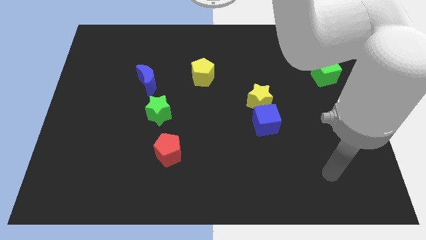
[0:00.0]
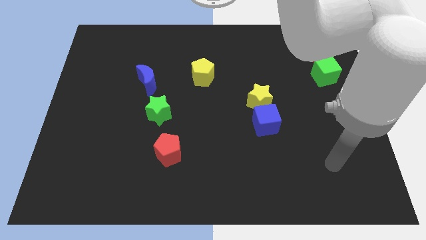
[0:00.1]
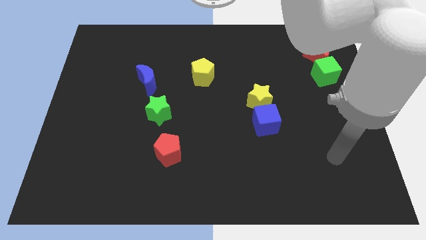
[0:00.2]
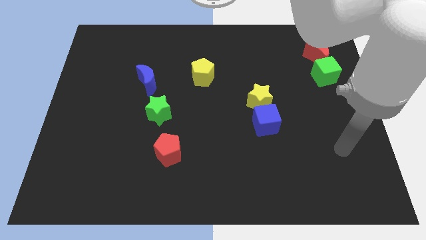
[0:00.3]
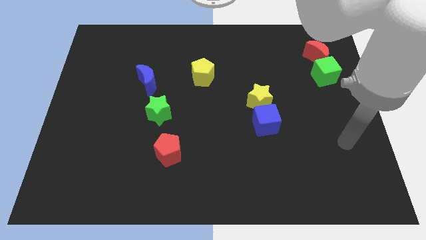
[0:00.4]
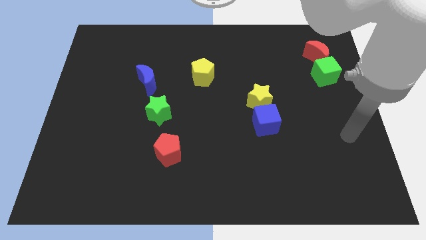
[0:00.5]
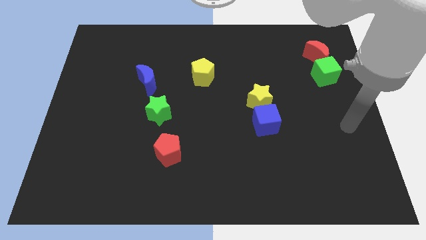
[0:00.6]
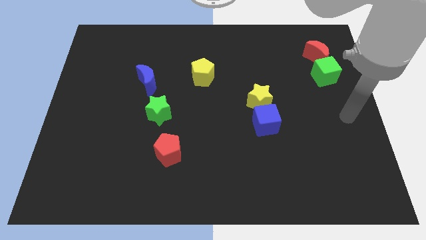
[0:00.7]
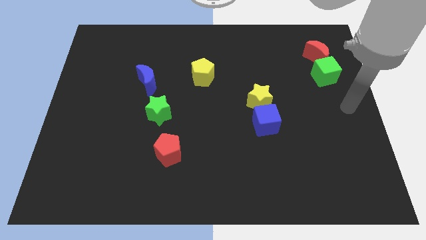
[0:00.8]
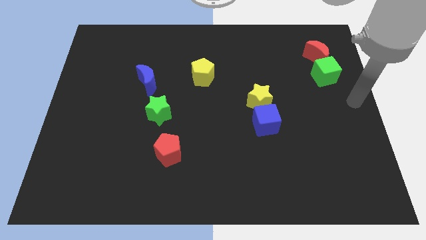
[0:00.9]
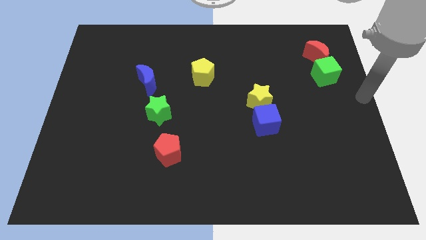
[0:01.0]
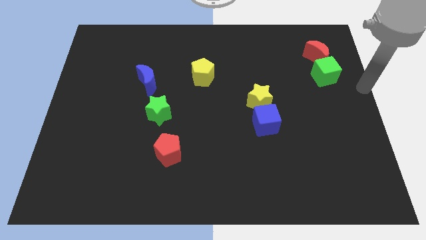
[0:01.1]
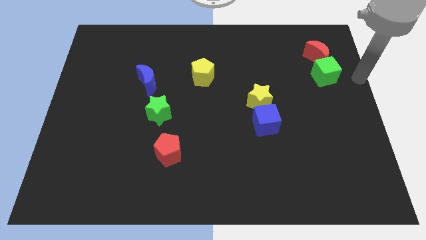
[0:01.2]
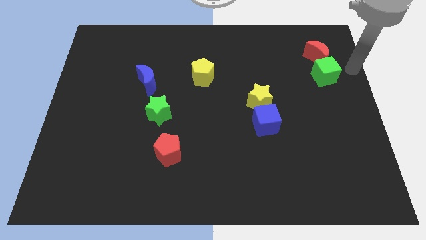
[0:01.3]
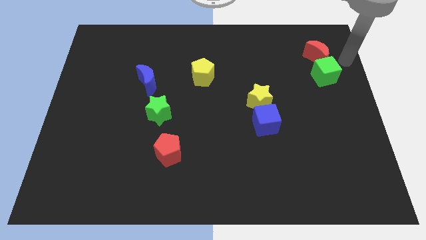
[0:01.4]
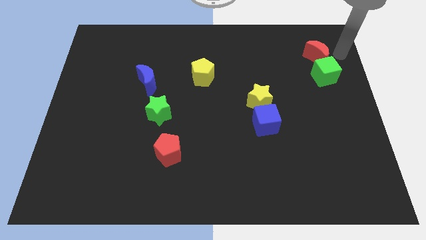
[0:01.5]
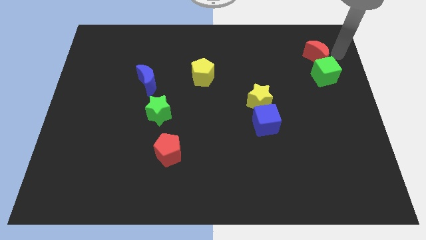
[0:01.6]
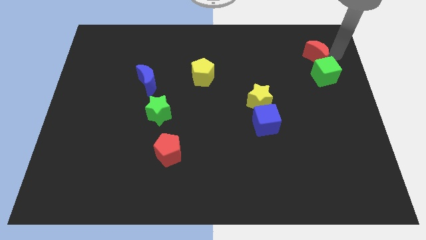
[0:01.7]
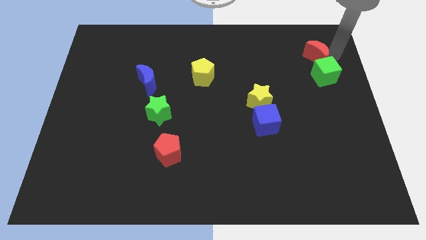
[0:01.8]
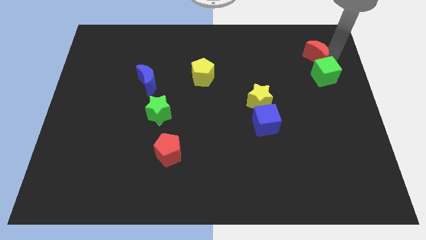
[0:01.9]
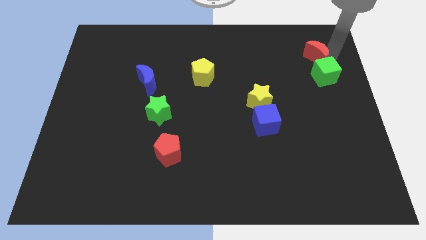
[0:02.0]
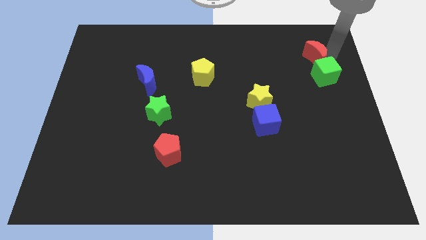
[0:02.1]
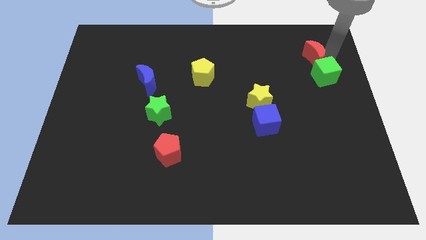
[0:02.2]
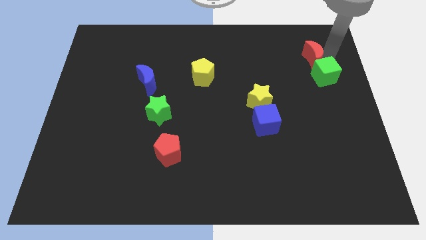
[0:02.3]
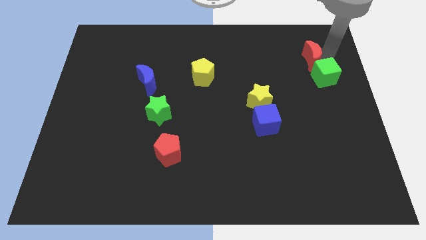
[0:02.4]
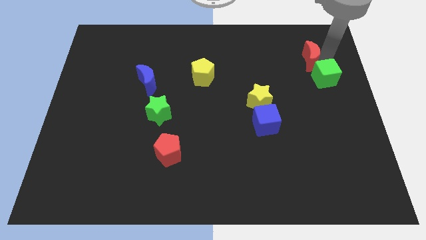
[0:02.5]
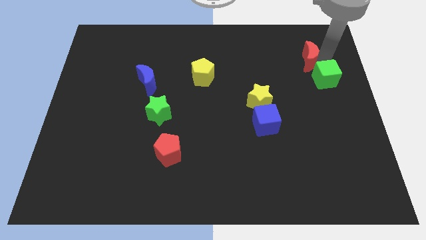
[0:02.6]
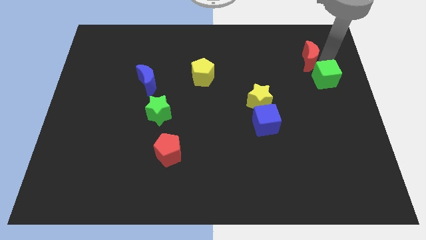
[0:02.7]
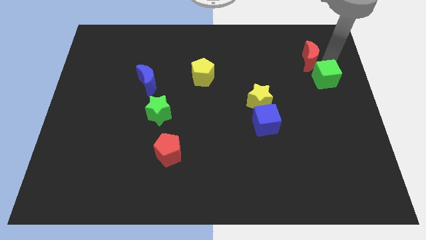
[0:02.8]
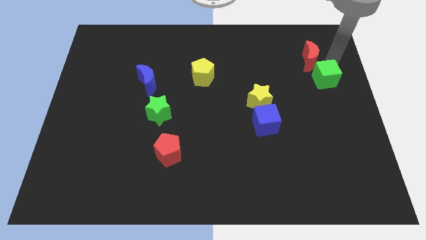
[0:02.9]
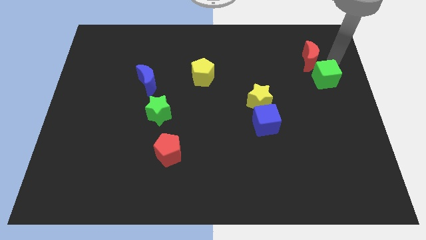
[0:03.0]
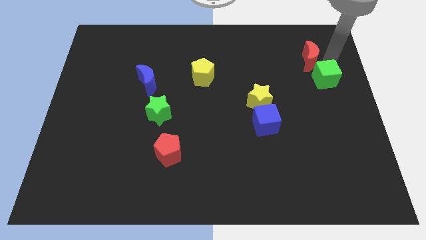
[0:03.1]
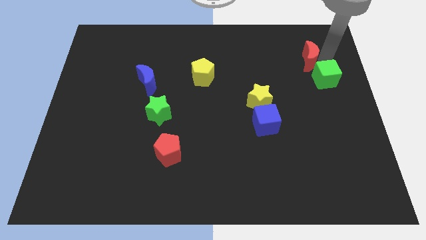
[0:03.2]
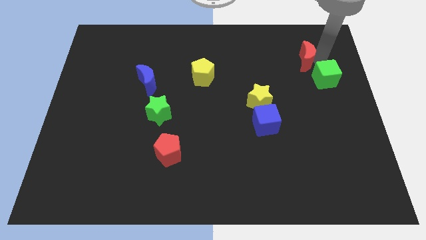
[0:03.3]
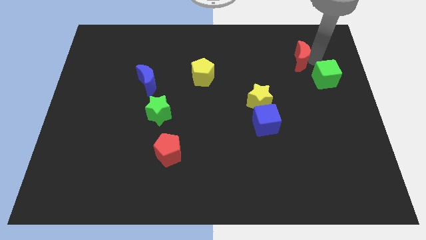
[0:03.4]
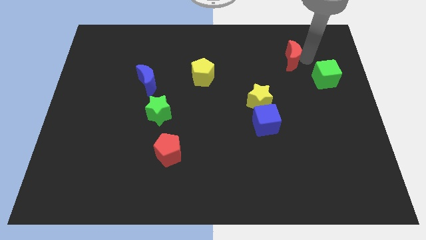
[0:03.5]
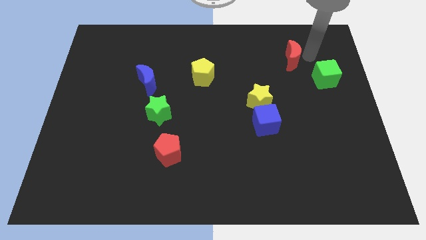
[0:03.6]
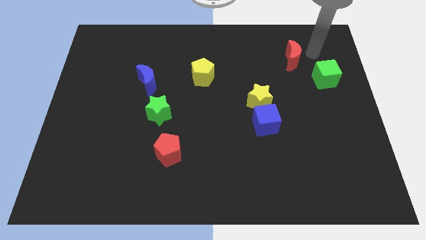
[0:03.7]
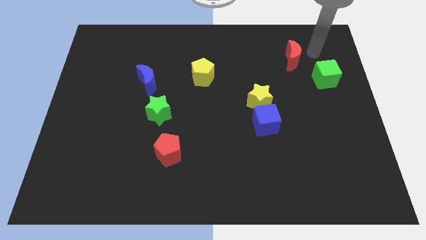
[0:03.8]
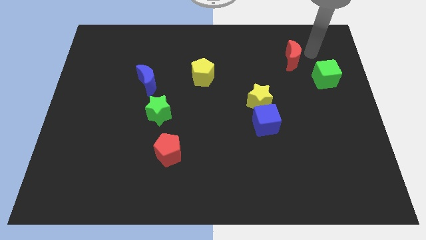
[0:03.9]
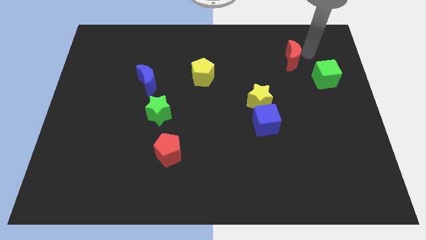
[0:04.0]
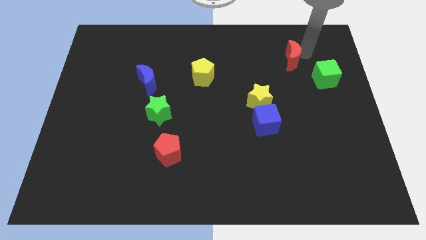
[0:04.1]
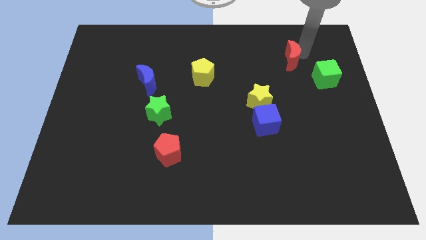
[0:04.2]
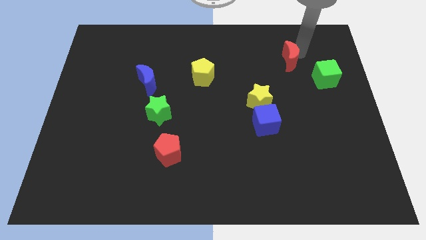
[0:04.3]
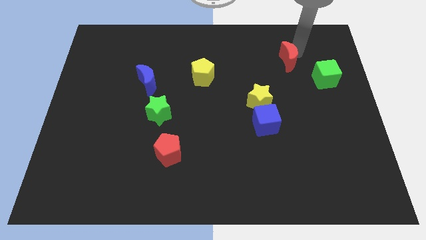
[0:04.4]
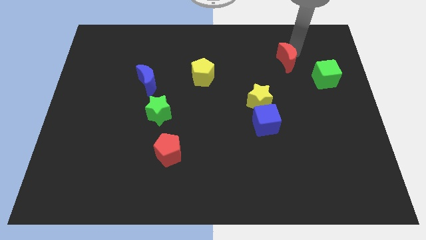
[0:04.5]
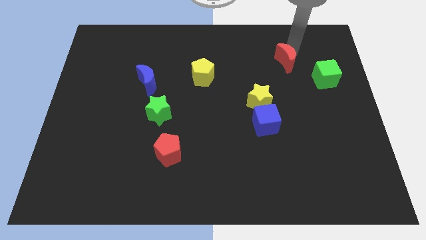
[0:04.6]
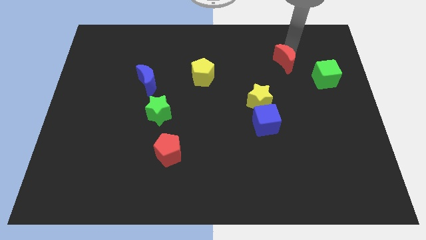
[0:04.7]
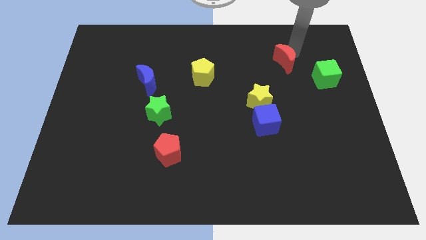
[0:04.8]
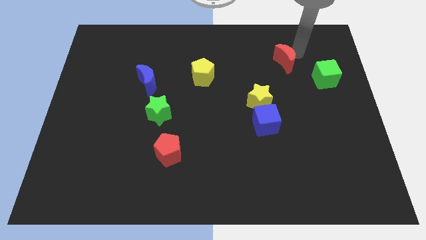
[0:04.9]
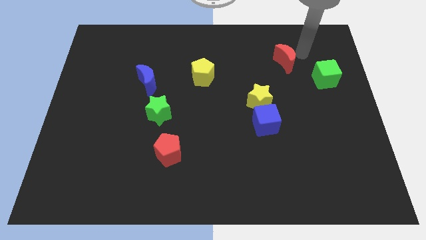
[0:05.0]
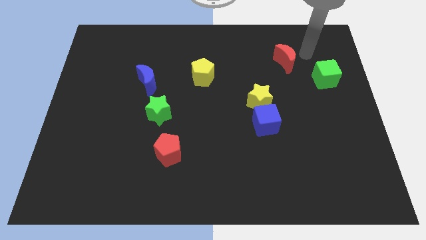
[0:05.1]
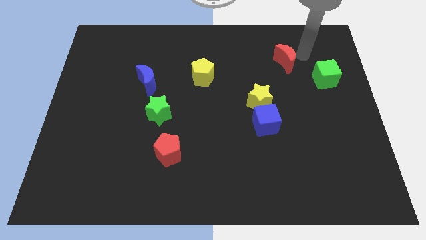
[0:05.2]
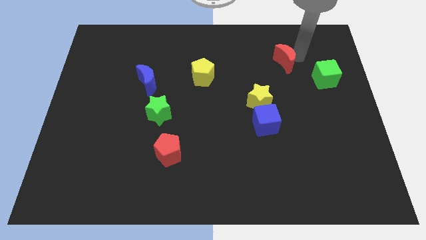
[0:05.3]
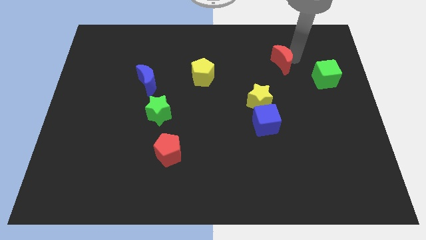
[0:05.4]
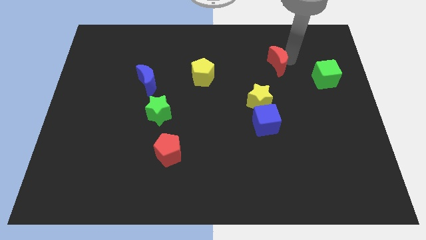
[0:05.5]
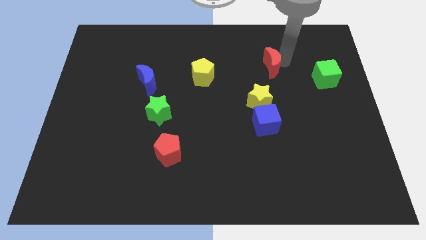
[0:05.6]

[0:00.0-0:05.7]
slide the red moon to the top side of the yellow star

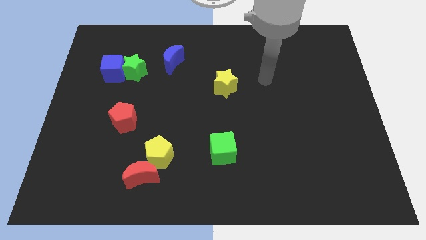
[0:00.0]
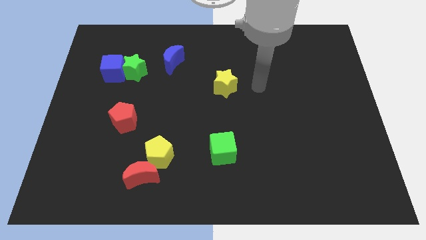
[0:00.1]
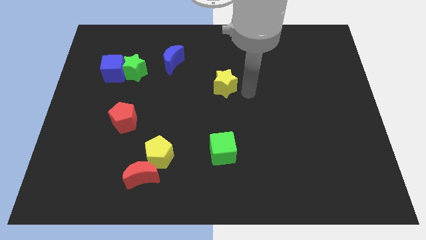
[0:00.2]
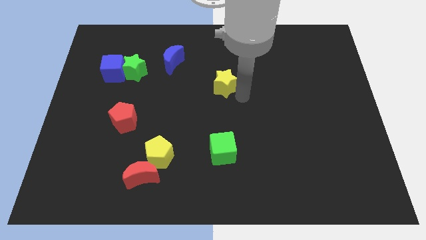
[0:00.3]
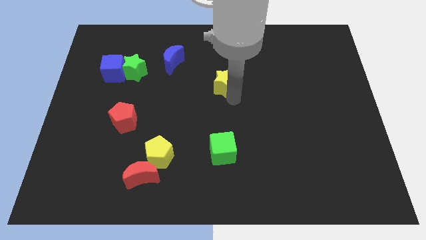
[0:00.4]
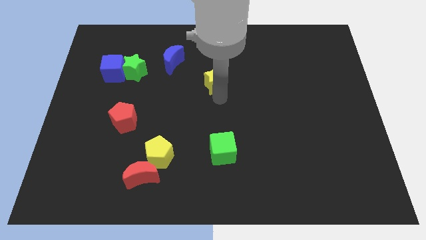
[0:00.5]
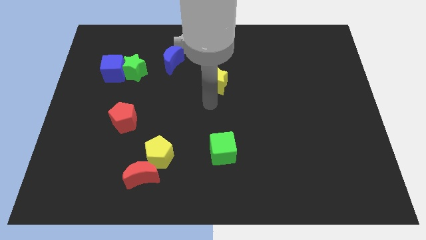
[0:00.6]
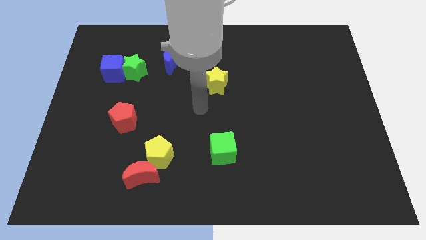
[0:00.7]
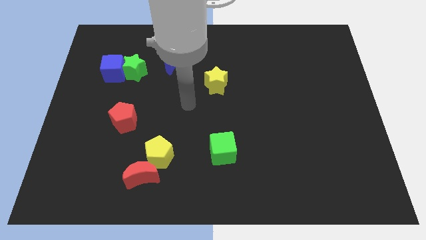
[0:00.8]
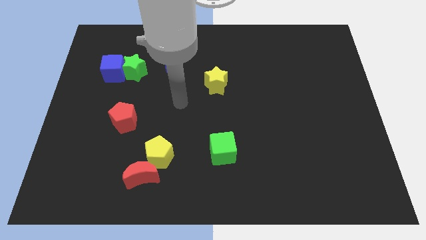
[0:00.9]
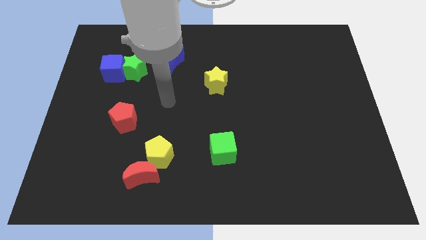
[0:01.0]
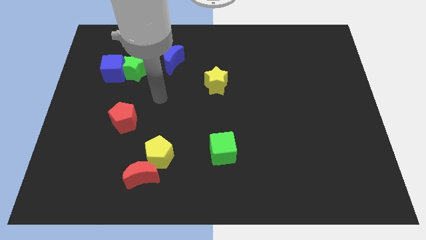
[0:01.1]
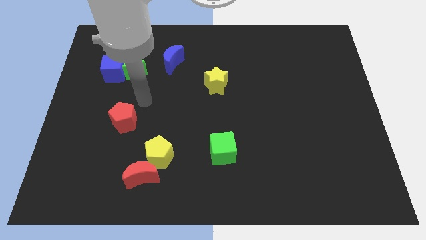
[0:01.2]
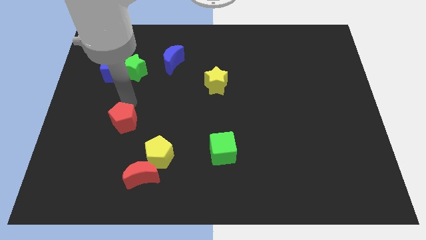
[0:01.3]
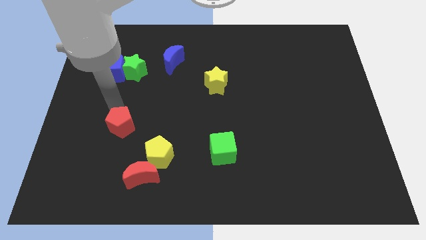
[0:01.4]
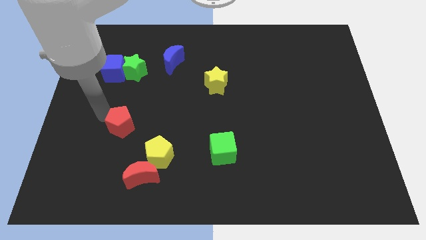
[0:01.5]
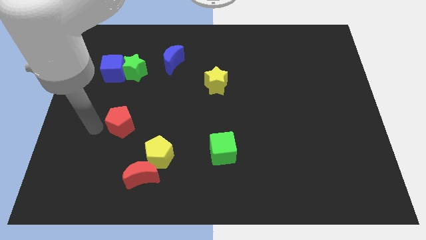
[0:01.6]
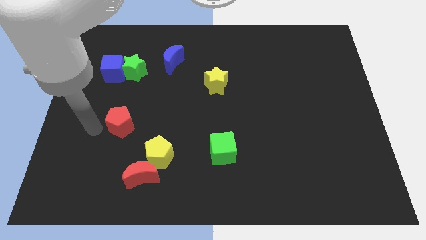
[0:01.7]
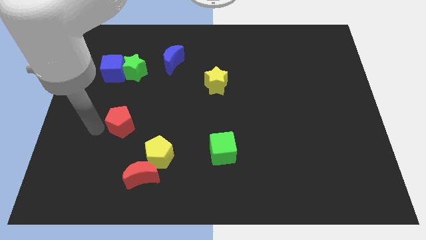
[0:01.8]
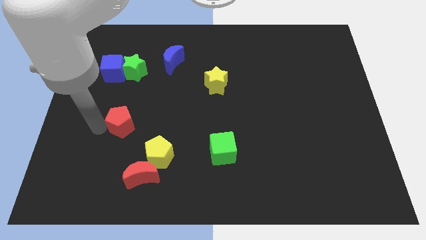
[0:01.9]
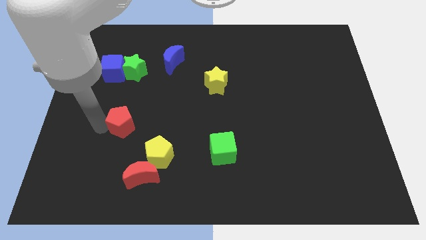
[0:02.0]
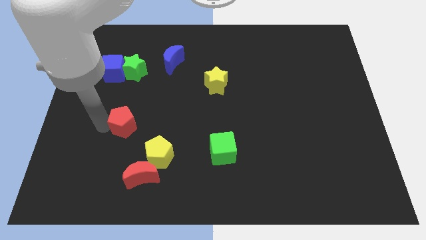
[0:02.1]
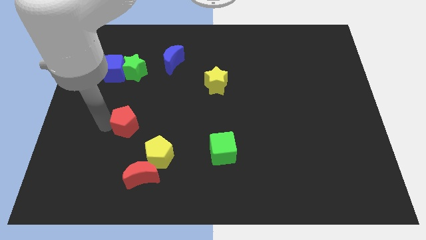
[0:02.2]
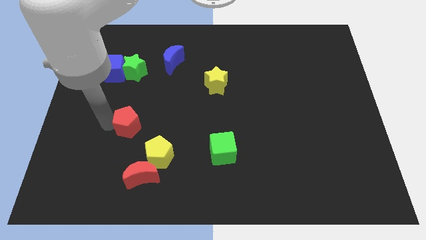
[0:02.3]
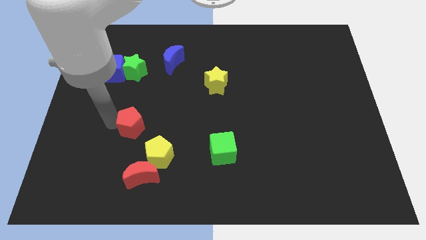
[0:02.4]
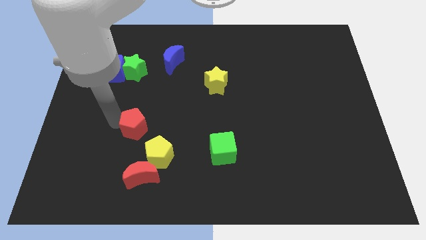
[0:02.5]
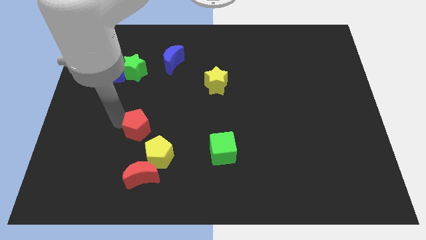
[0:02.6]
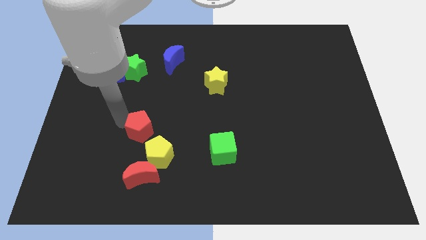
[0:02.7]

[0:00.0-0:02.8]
move the red pentagon to the top of the yellow pentagon
